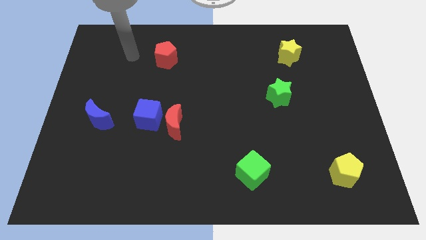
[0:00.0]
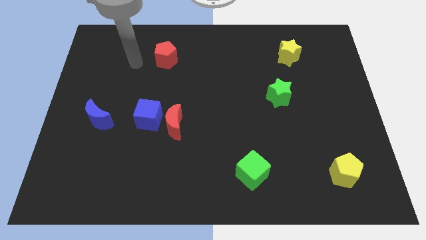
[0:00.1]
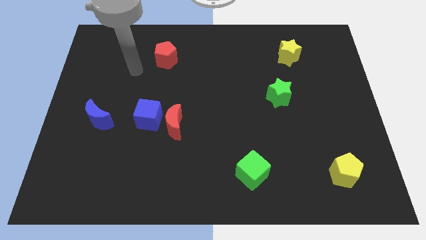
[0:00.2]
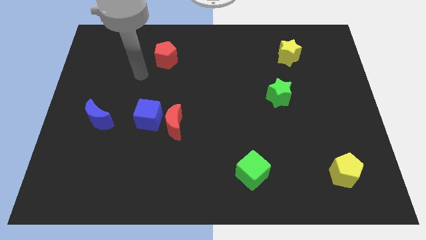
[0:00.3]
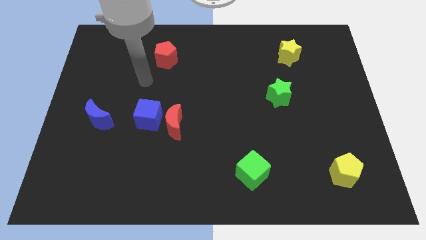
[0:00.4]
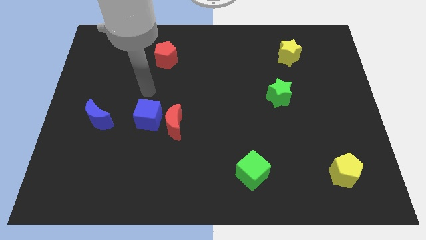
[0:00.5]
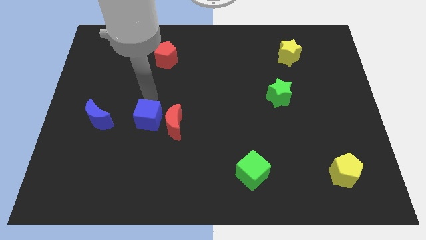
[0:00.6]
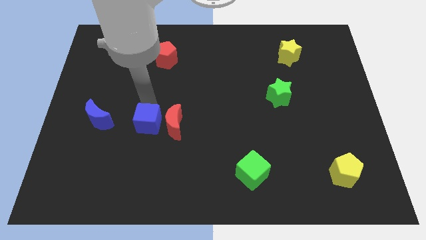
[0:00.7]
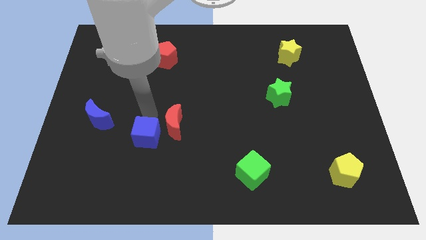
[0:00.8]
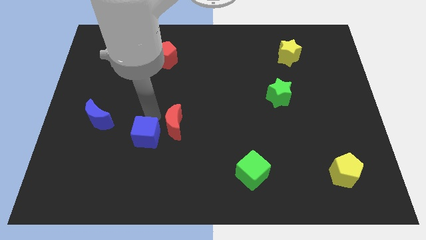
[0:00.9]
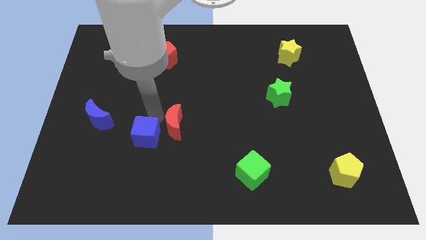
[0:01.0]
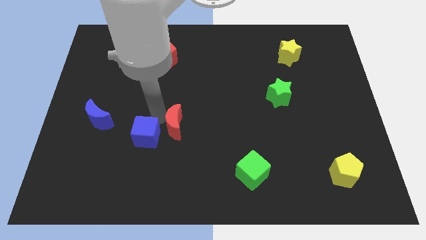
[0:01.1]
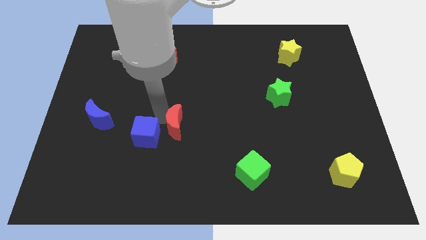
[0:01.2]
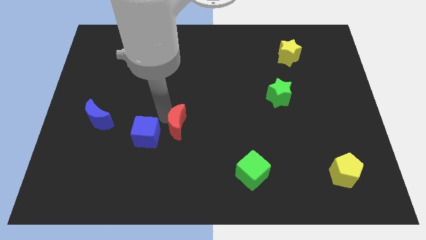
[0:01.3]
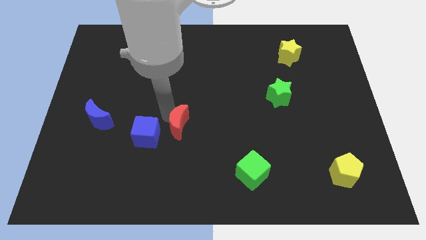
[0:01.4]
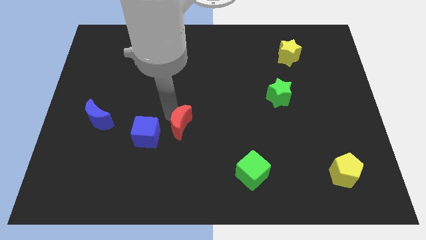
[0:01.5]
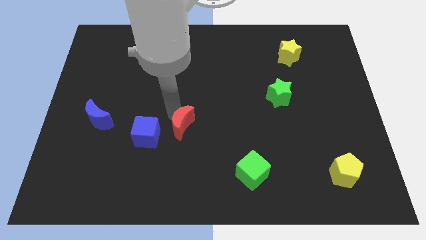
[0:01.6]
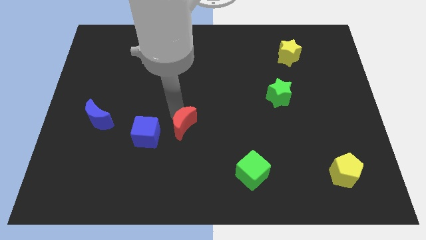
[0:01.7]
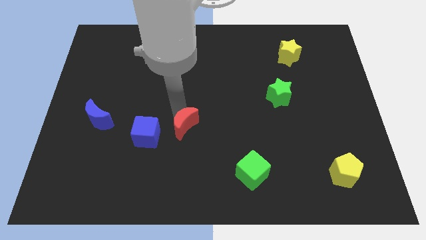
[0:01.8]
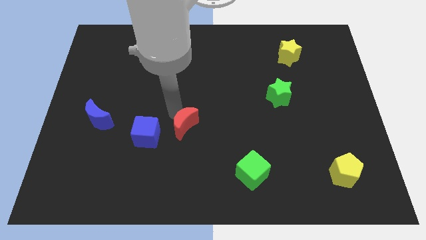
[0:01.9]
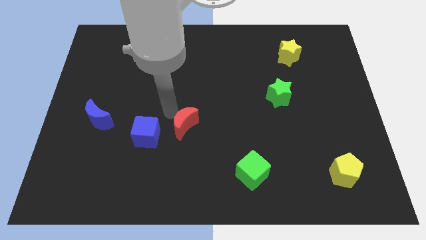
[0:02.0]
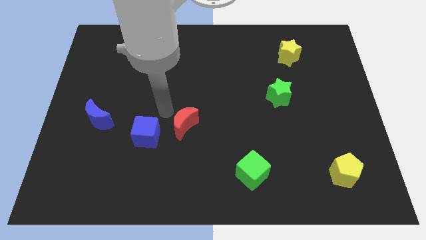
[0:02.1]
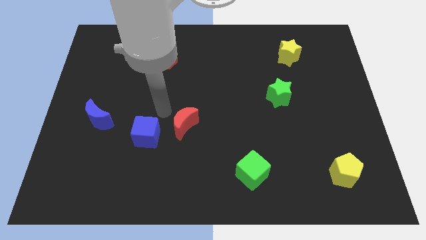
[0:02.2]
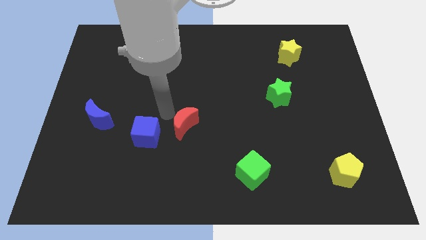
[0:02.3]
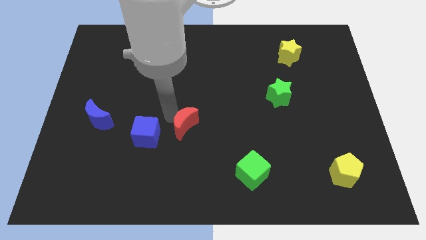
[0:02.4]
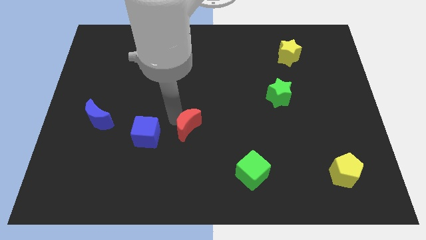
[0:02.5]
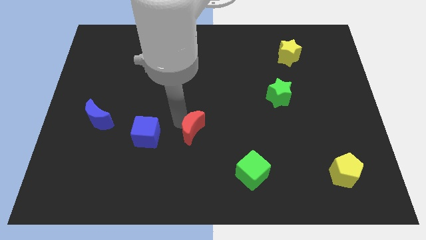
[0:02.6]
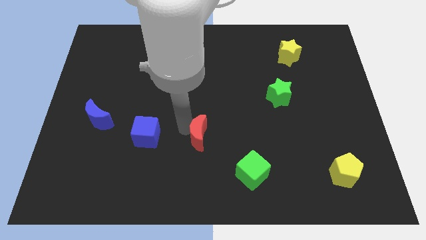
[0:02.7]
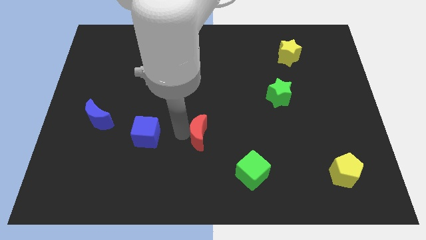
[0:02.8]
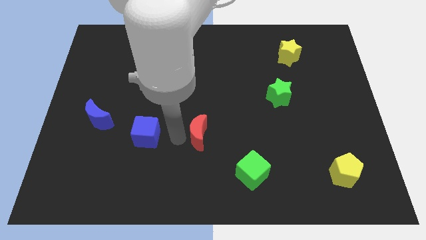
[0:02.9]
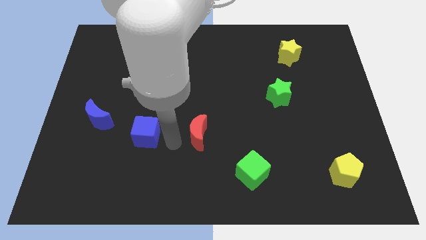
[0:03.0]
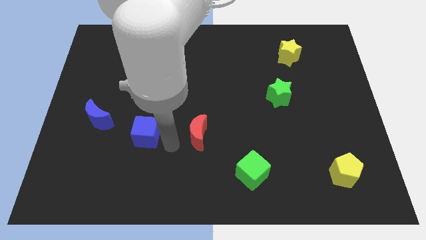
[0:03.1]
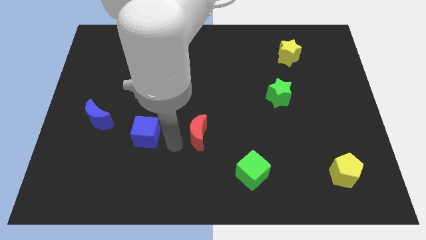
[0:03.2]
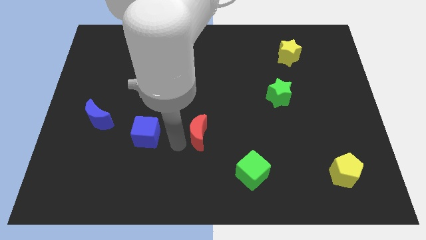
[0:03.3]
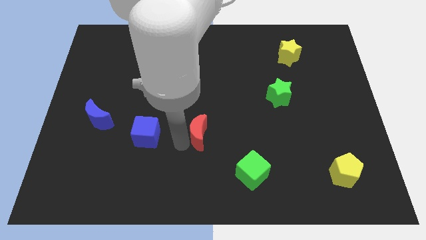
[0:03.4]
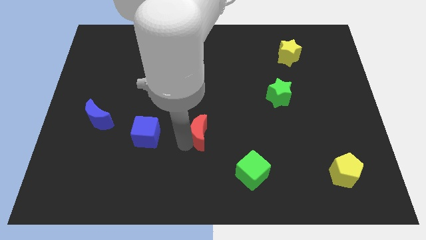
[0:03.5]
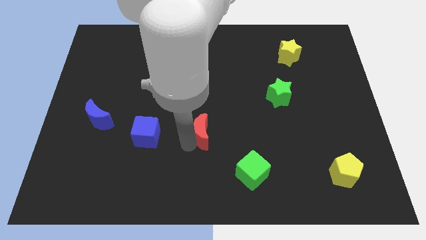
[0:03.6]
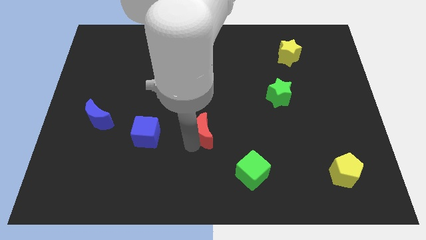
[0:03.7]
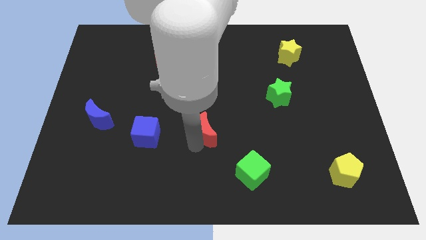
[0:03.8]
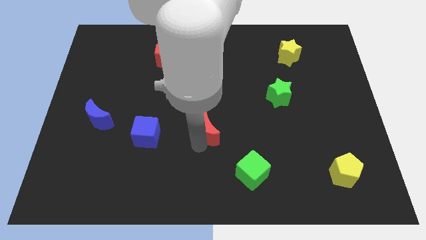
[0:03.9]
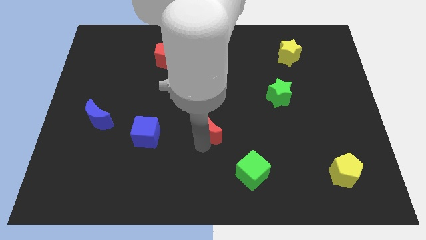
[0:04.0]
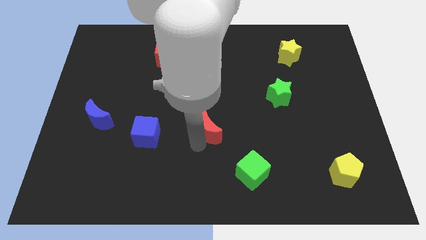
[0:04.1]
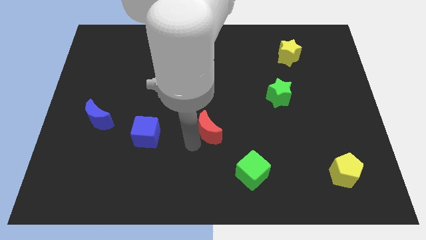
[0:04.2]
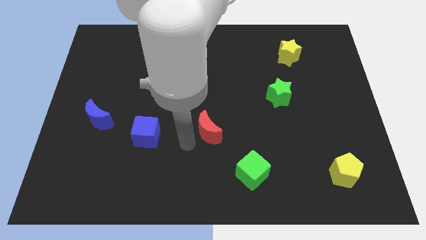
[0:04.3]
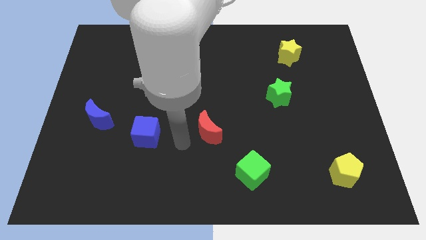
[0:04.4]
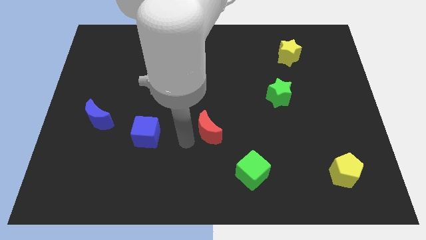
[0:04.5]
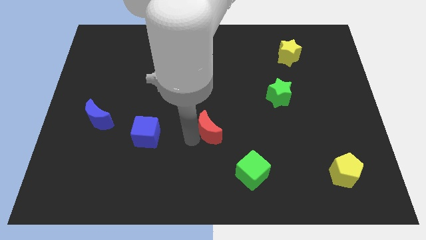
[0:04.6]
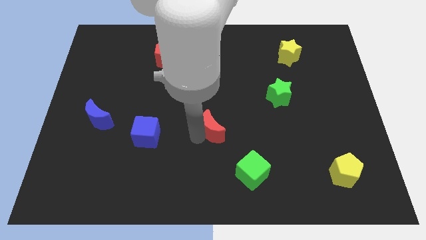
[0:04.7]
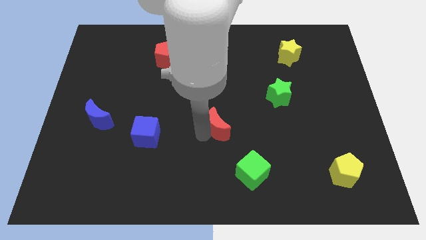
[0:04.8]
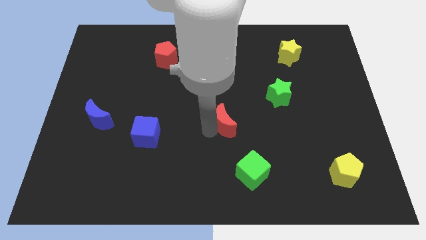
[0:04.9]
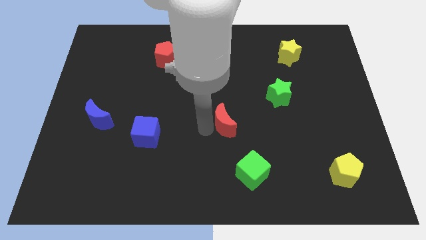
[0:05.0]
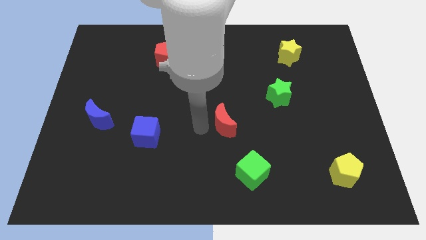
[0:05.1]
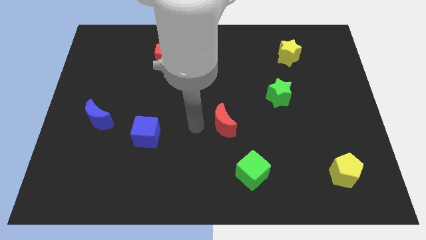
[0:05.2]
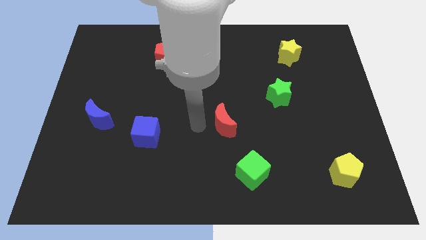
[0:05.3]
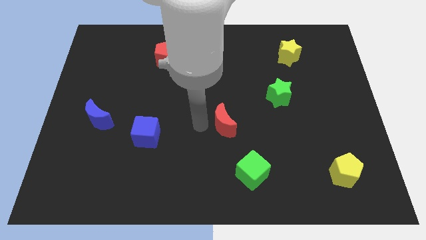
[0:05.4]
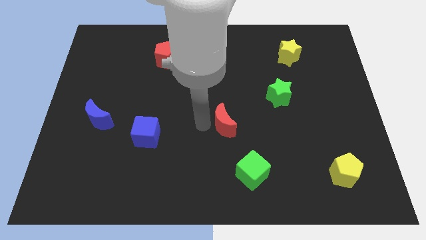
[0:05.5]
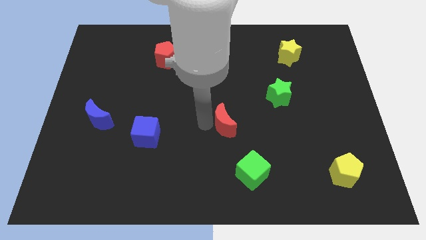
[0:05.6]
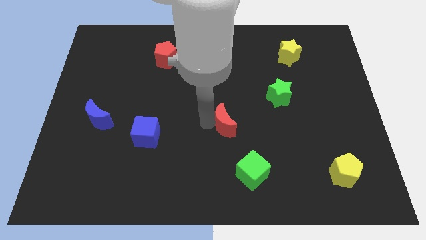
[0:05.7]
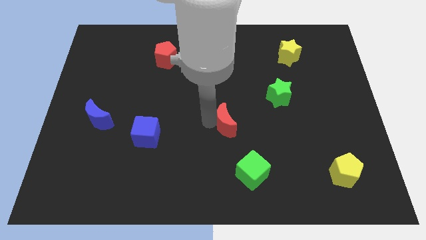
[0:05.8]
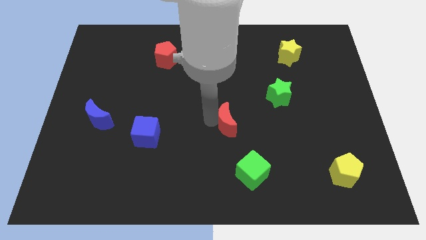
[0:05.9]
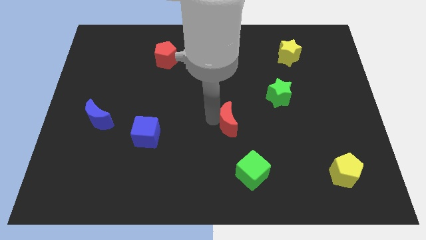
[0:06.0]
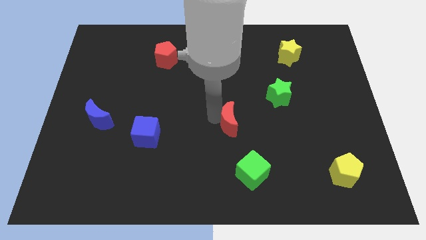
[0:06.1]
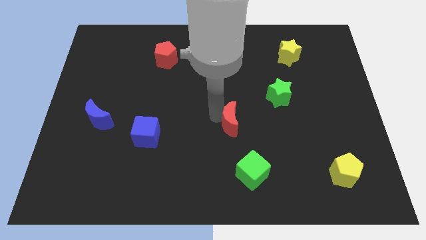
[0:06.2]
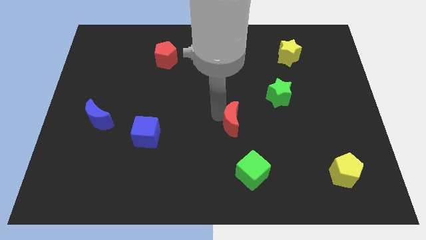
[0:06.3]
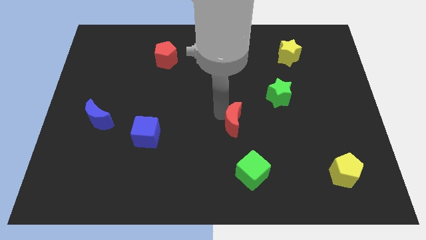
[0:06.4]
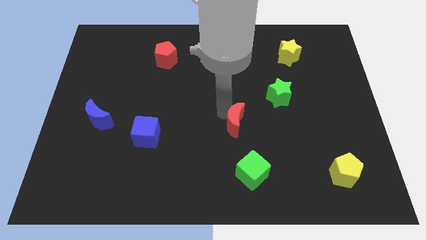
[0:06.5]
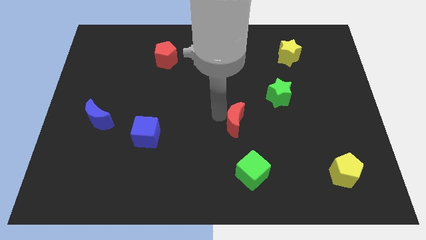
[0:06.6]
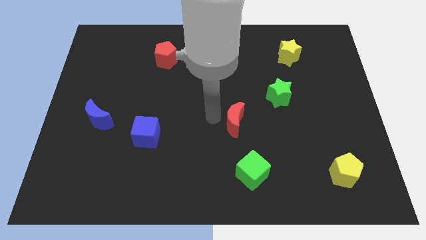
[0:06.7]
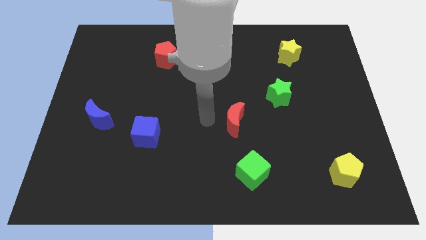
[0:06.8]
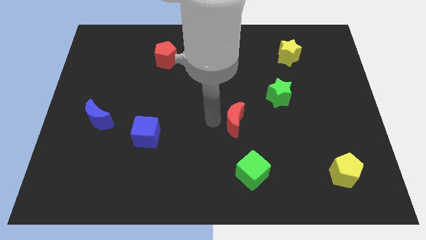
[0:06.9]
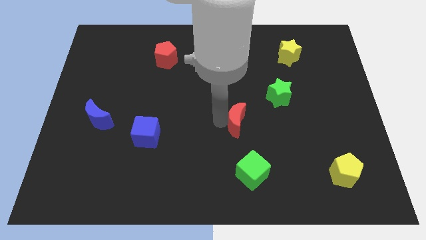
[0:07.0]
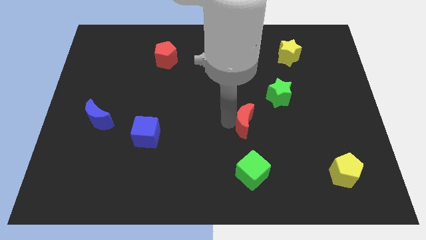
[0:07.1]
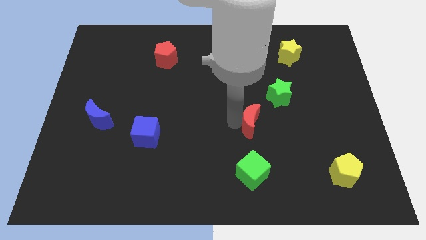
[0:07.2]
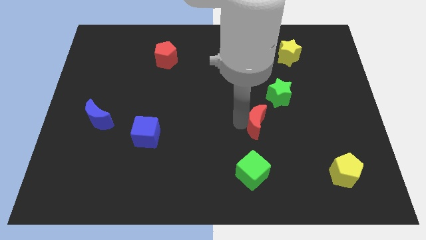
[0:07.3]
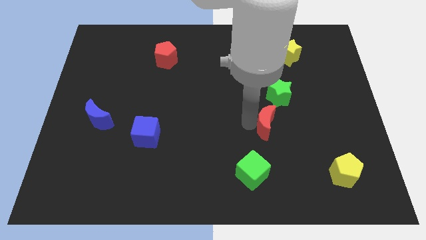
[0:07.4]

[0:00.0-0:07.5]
move the red moon to the right

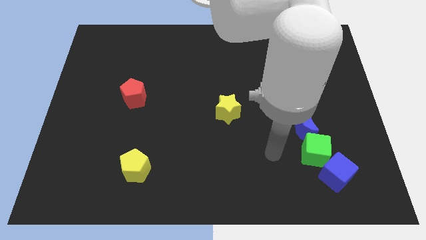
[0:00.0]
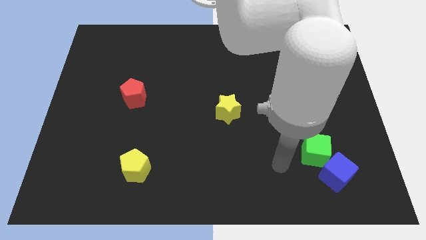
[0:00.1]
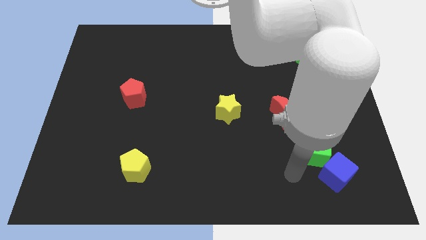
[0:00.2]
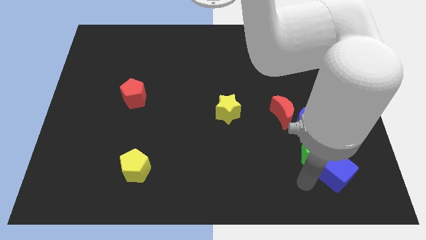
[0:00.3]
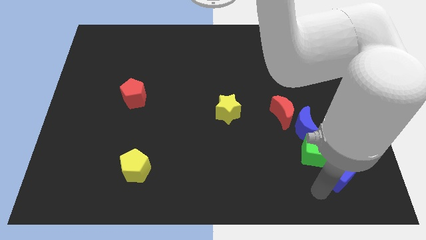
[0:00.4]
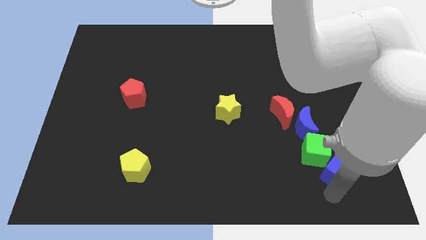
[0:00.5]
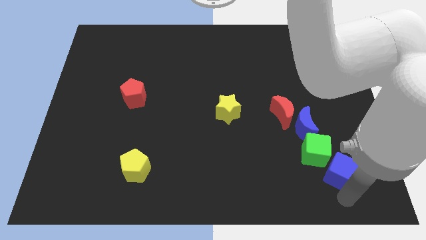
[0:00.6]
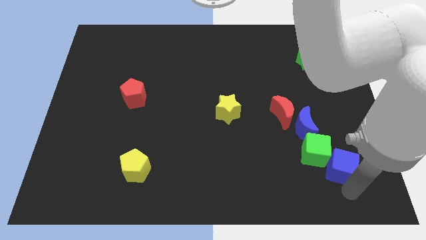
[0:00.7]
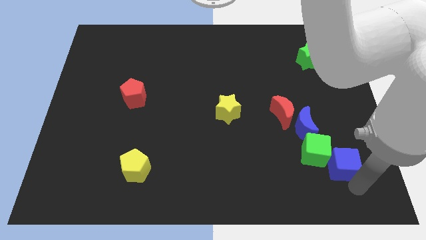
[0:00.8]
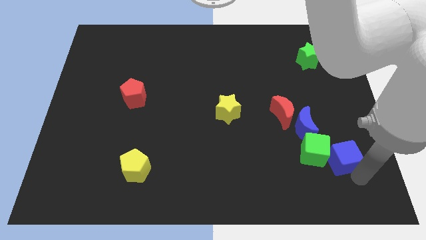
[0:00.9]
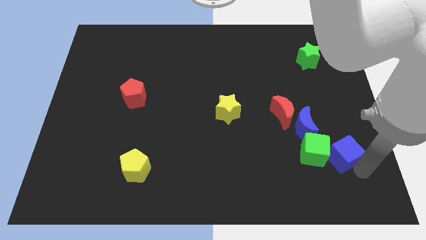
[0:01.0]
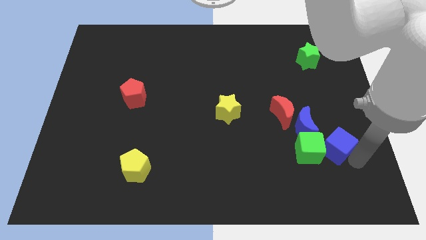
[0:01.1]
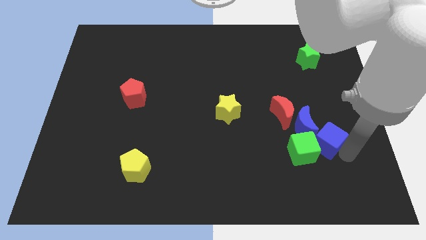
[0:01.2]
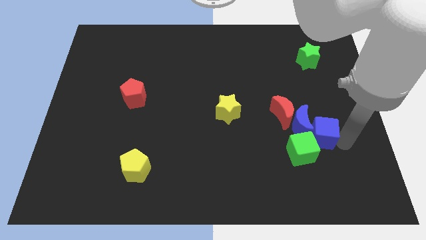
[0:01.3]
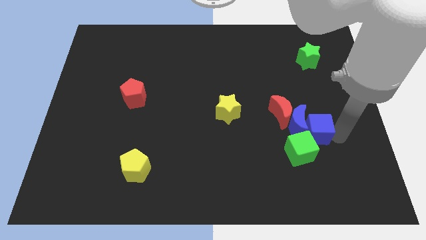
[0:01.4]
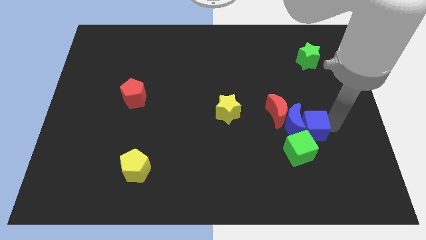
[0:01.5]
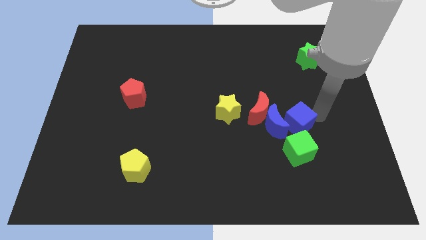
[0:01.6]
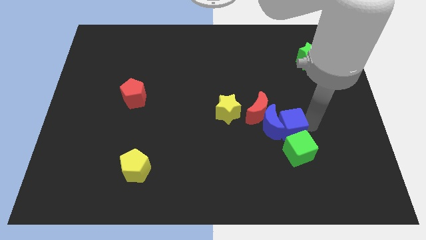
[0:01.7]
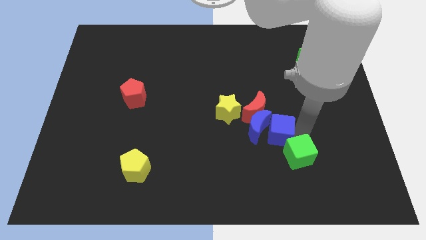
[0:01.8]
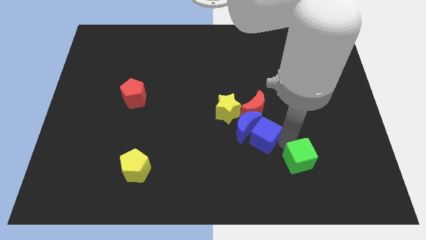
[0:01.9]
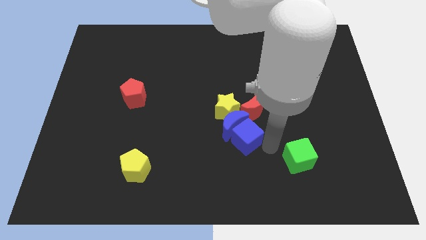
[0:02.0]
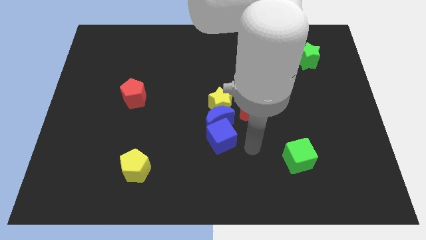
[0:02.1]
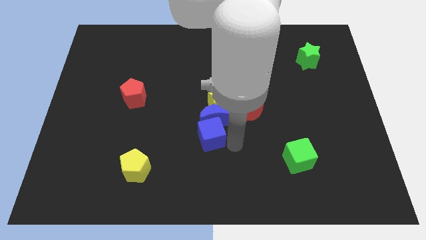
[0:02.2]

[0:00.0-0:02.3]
slightly slide the blue moon diagonally upwards and left
